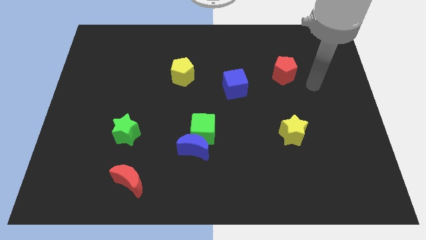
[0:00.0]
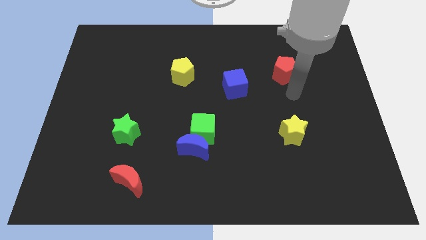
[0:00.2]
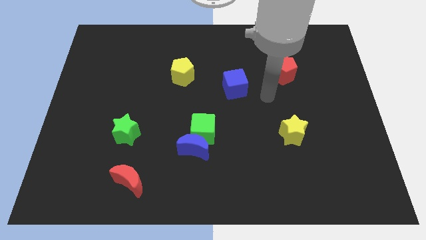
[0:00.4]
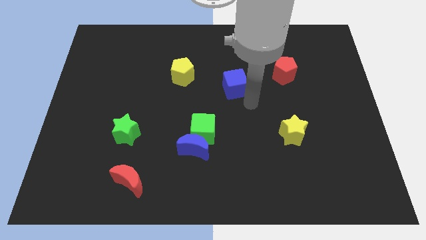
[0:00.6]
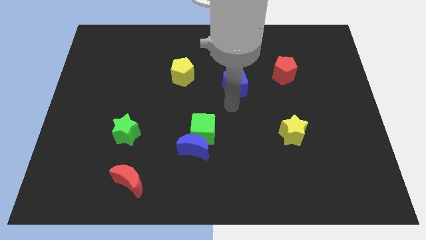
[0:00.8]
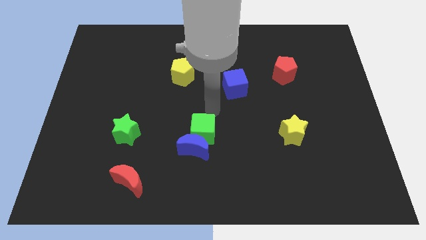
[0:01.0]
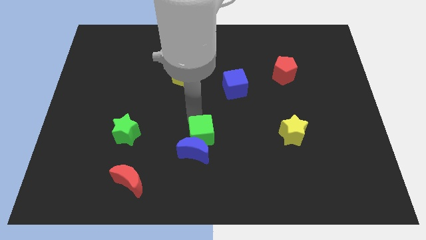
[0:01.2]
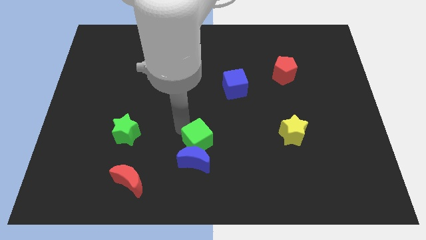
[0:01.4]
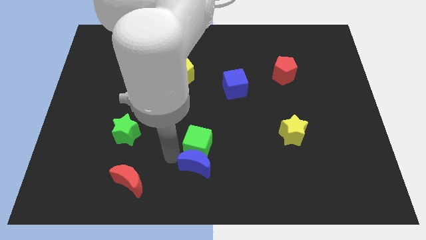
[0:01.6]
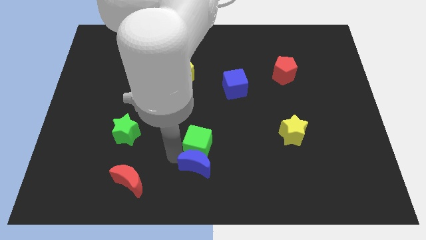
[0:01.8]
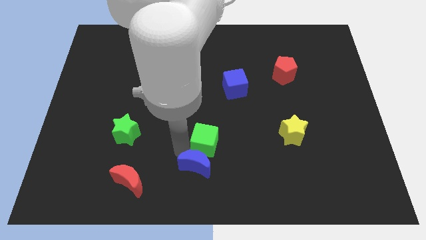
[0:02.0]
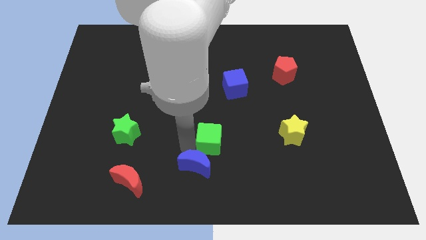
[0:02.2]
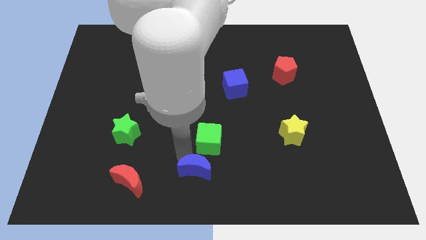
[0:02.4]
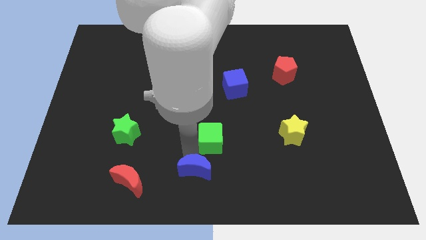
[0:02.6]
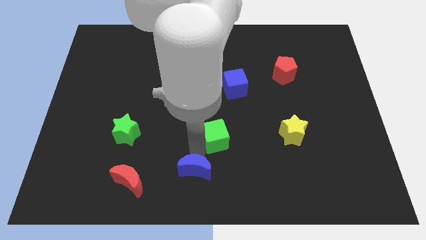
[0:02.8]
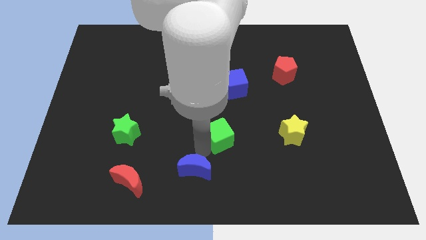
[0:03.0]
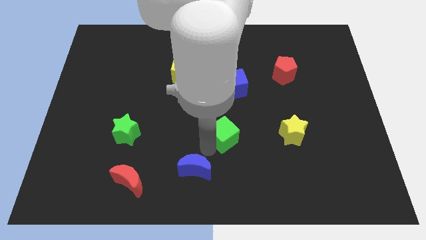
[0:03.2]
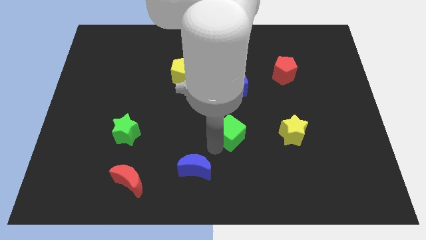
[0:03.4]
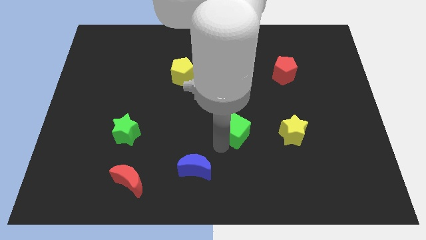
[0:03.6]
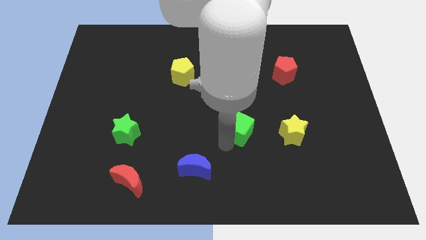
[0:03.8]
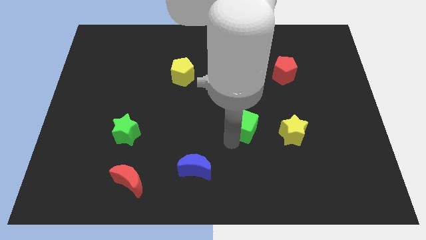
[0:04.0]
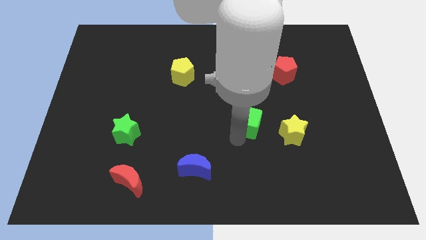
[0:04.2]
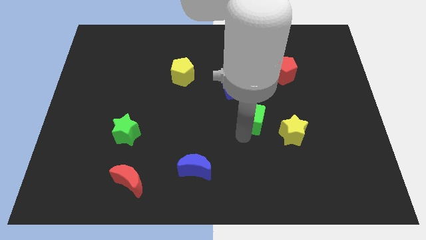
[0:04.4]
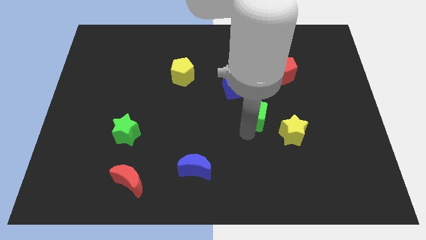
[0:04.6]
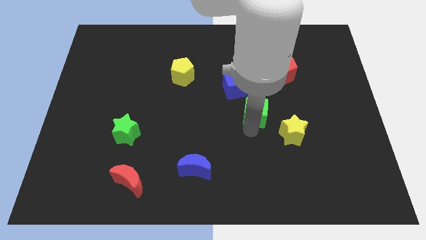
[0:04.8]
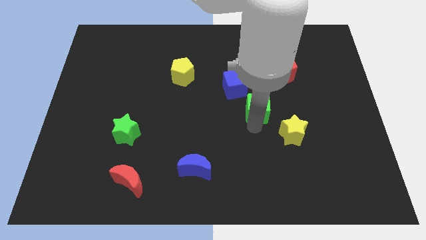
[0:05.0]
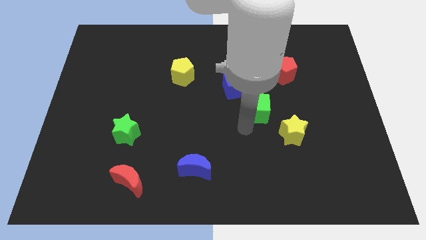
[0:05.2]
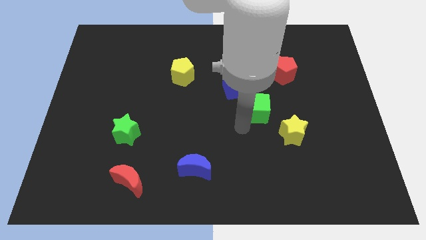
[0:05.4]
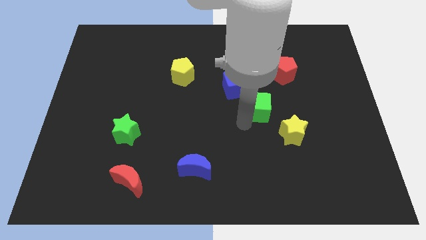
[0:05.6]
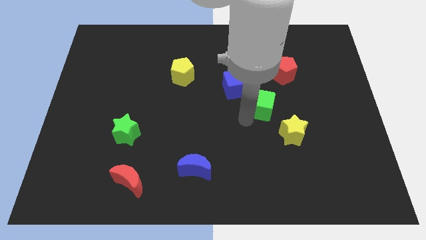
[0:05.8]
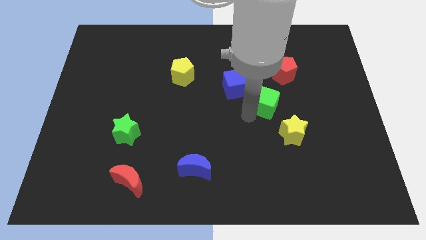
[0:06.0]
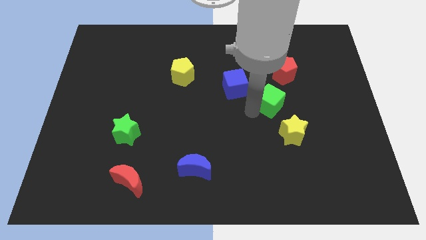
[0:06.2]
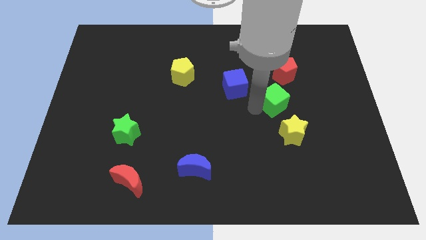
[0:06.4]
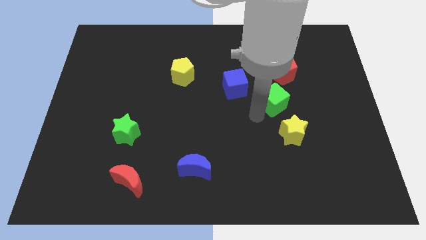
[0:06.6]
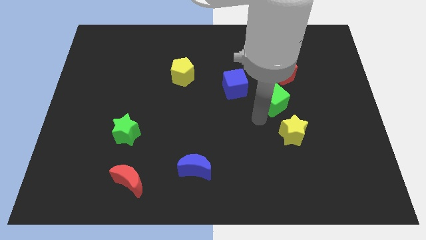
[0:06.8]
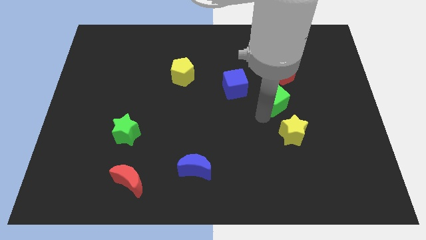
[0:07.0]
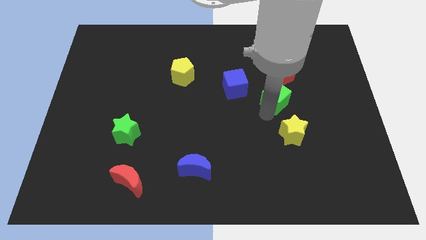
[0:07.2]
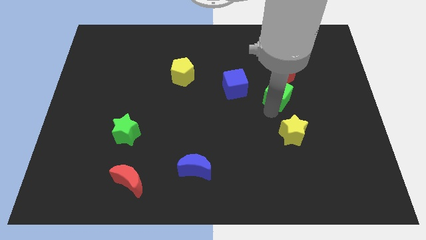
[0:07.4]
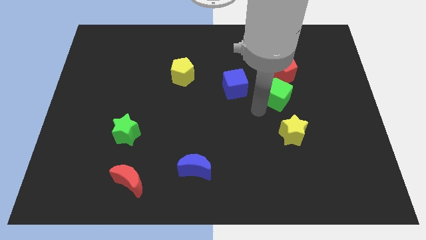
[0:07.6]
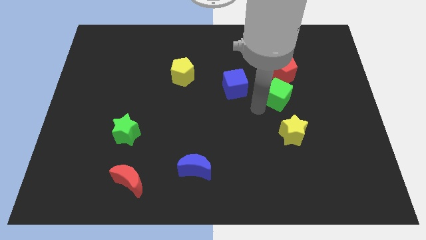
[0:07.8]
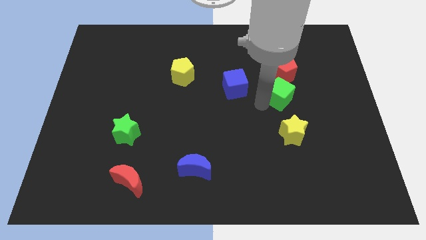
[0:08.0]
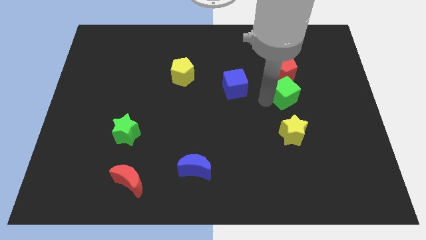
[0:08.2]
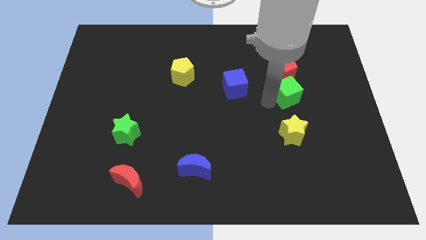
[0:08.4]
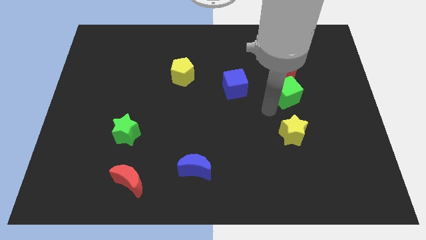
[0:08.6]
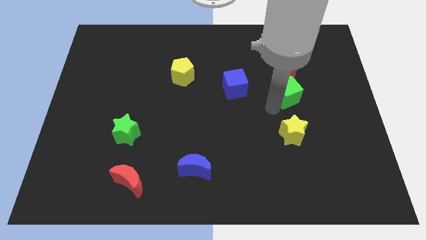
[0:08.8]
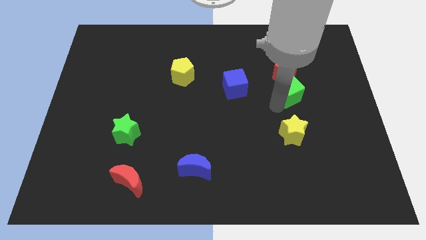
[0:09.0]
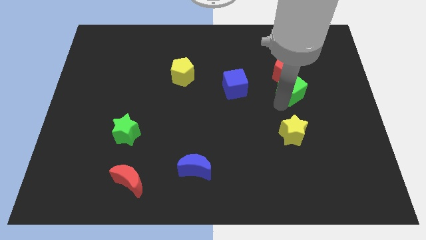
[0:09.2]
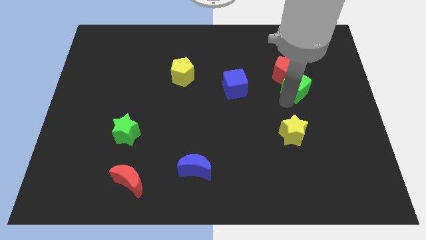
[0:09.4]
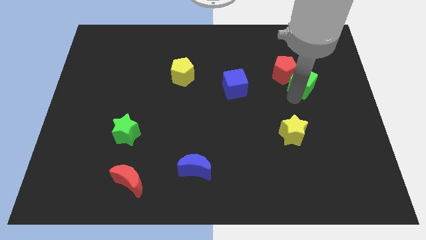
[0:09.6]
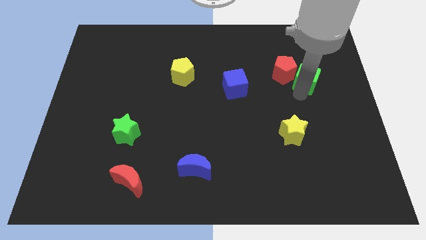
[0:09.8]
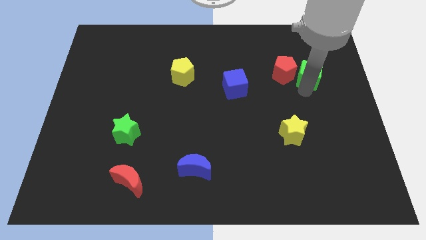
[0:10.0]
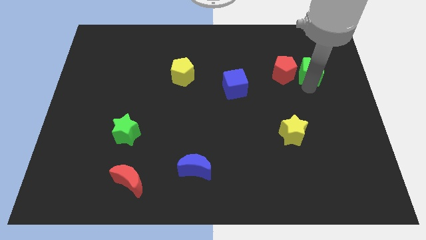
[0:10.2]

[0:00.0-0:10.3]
push the green cube to the top right side of the red pentagon

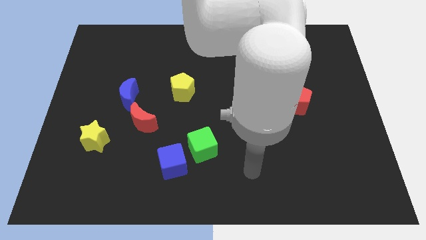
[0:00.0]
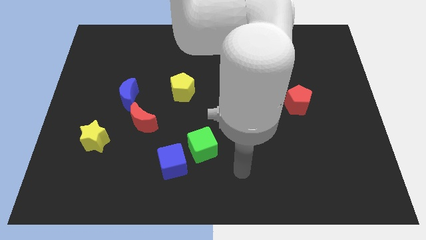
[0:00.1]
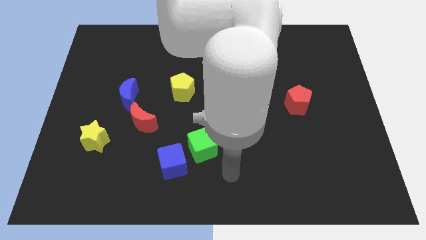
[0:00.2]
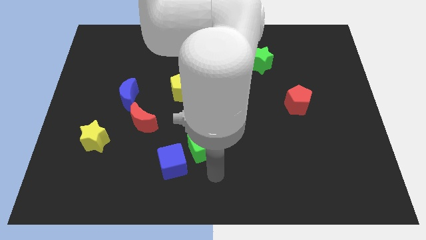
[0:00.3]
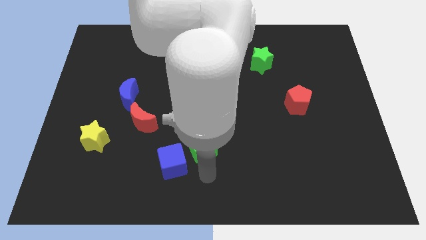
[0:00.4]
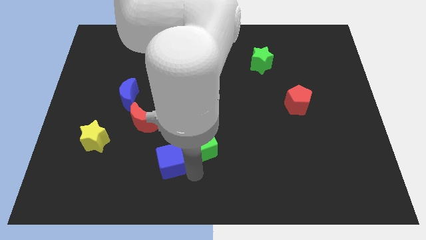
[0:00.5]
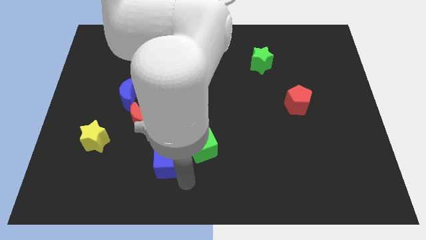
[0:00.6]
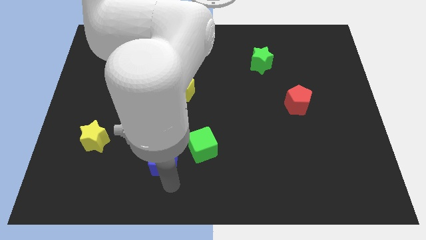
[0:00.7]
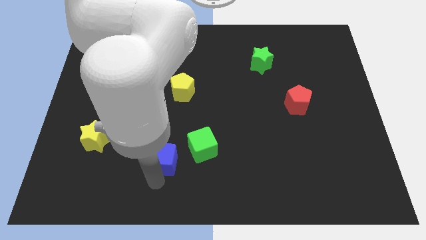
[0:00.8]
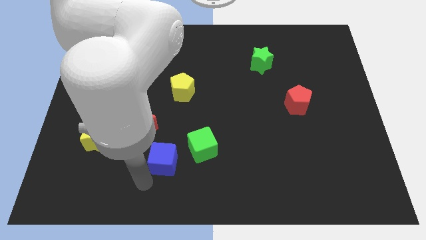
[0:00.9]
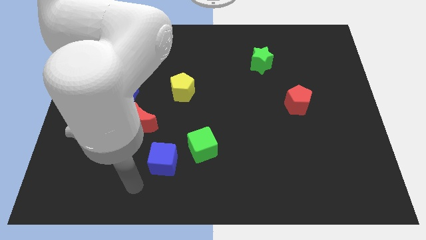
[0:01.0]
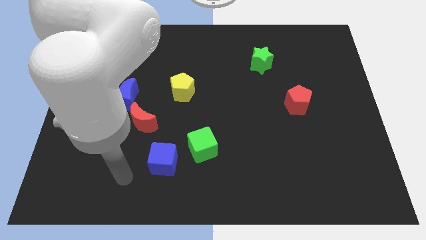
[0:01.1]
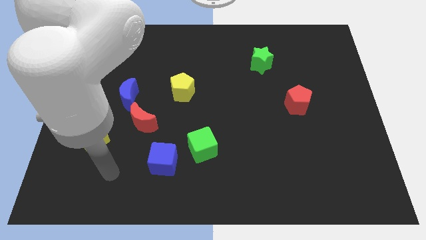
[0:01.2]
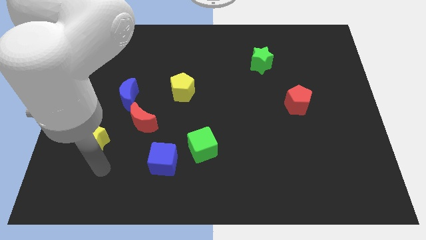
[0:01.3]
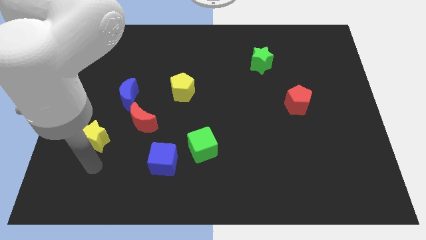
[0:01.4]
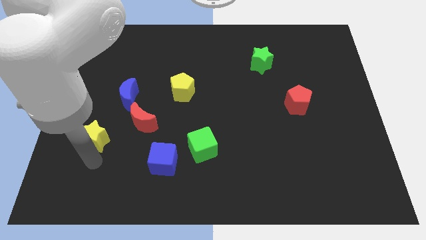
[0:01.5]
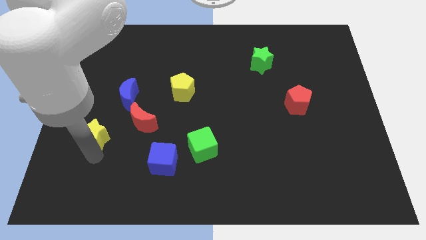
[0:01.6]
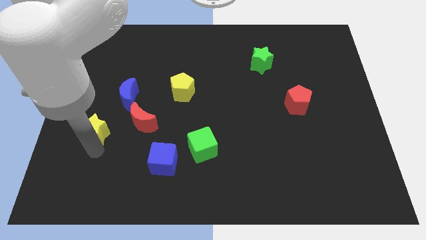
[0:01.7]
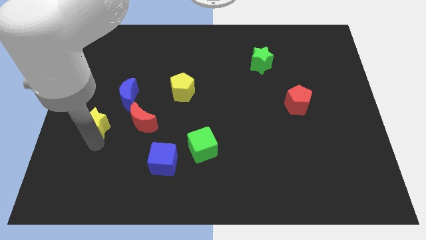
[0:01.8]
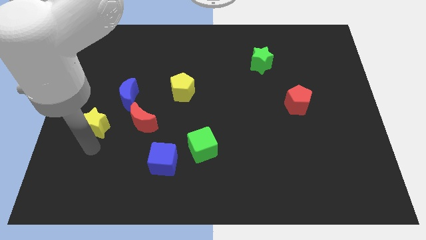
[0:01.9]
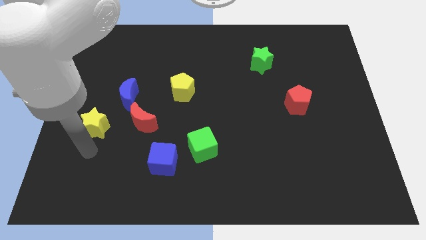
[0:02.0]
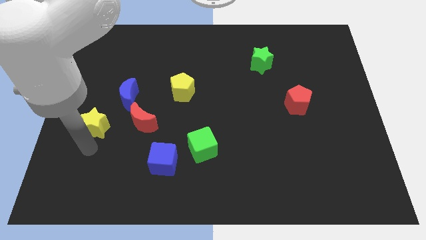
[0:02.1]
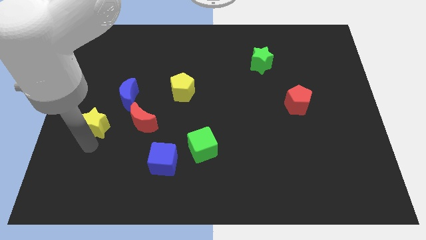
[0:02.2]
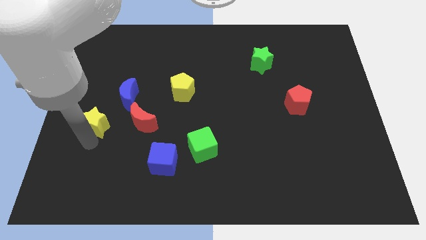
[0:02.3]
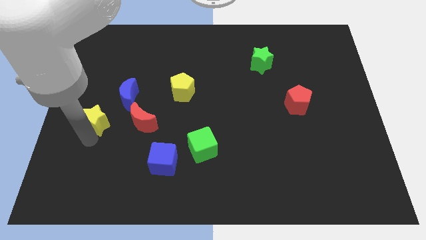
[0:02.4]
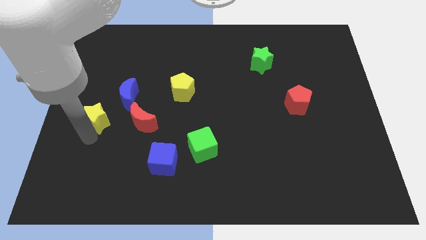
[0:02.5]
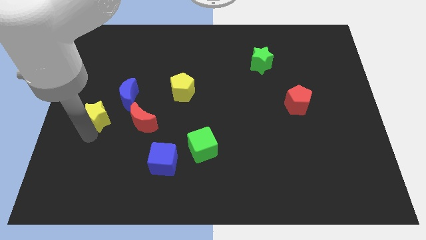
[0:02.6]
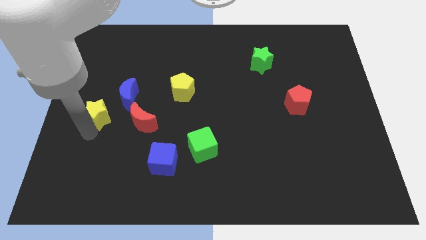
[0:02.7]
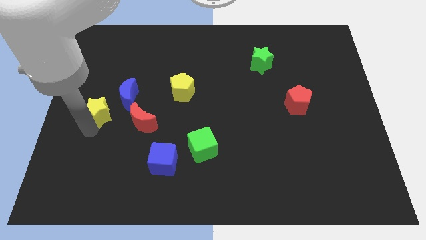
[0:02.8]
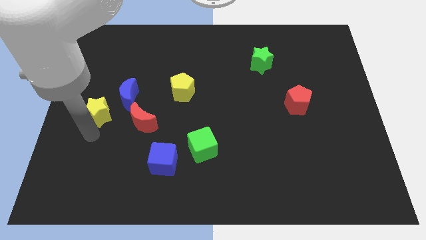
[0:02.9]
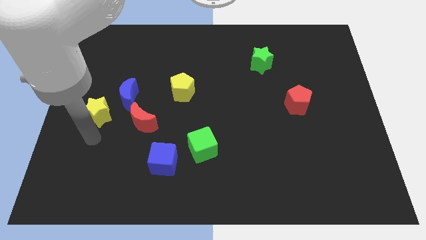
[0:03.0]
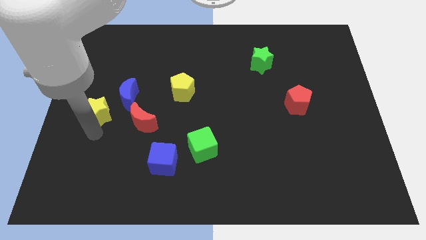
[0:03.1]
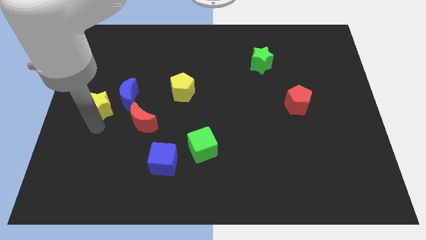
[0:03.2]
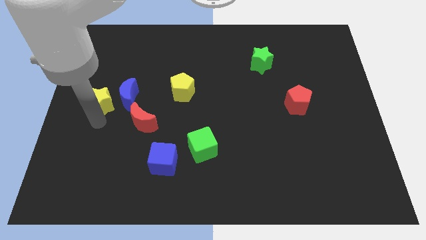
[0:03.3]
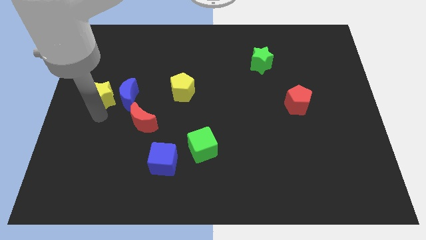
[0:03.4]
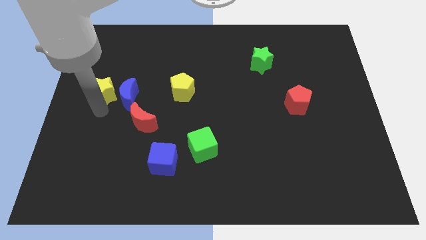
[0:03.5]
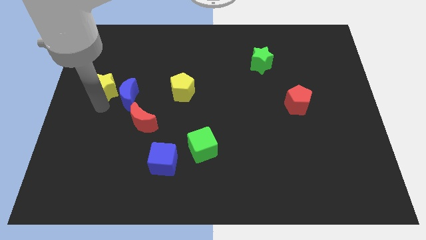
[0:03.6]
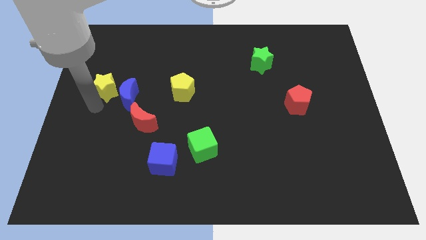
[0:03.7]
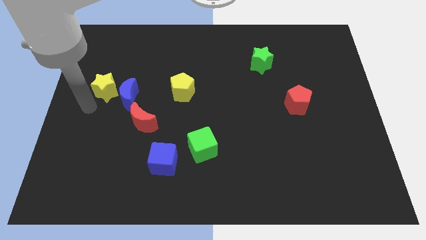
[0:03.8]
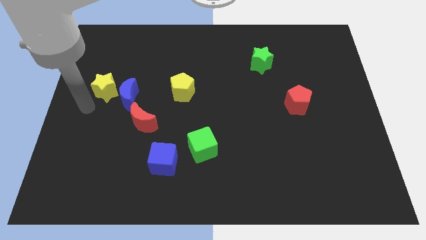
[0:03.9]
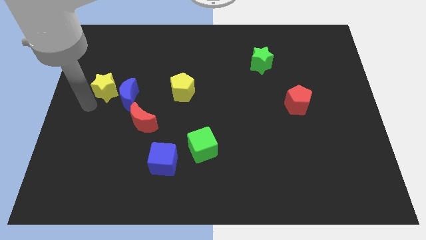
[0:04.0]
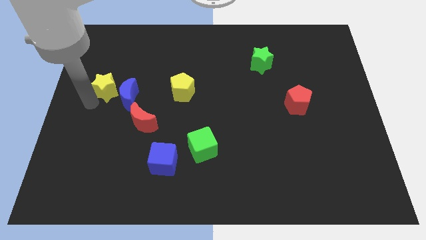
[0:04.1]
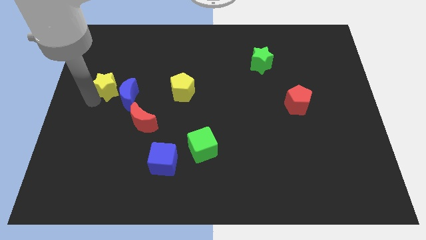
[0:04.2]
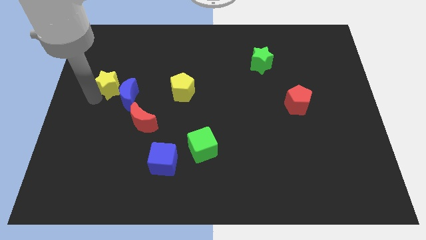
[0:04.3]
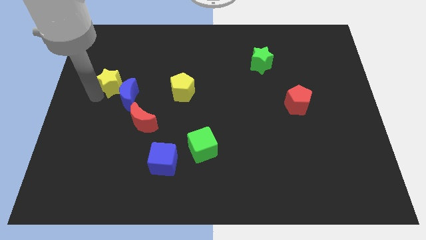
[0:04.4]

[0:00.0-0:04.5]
put the yellow star to the top side of the blue moon
